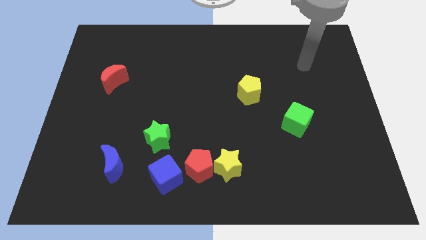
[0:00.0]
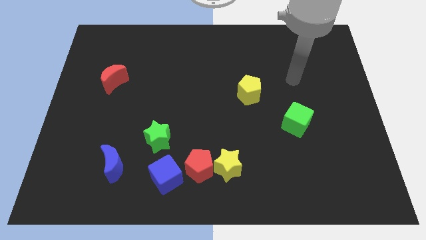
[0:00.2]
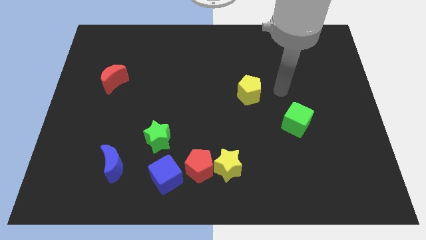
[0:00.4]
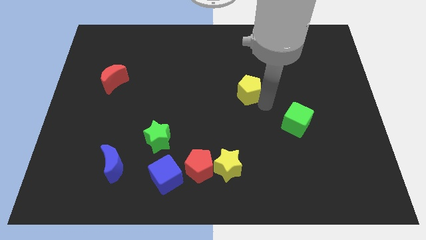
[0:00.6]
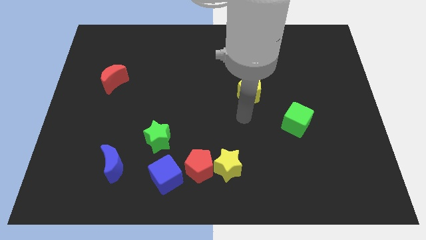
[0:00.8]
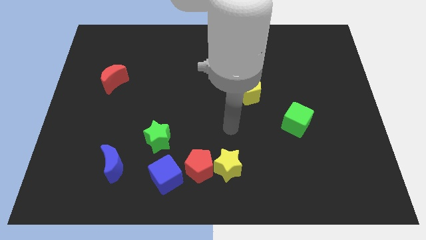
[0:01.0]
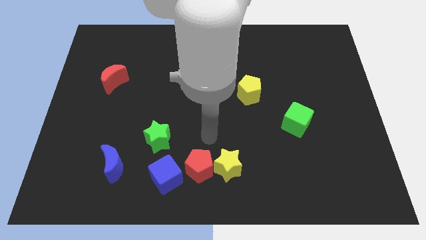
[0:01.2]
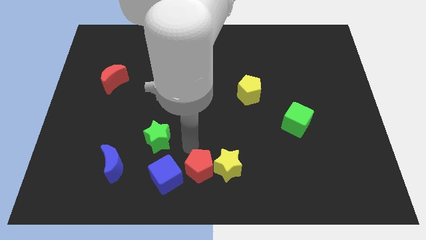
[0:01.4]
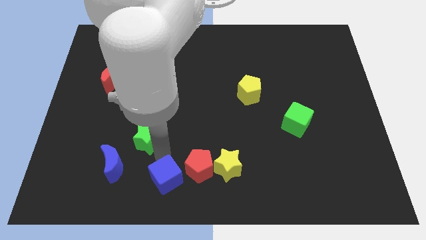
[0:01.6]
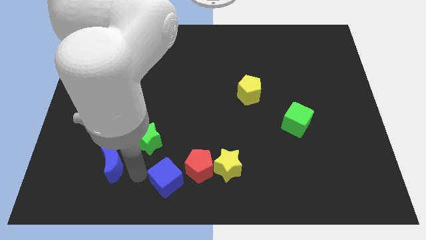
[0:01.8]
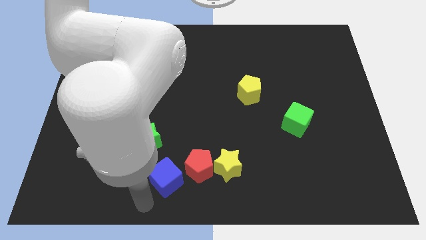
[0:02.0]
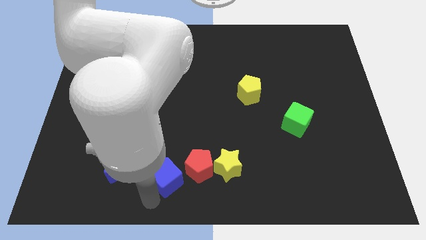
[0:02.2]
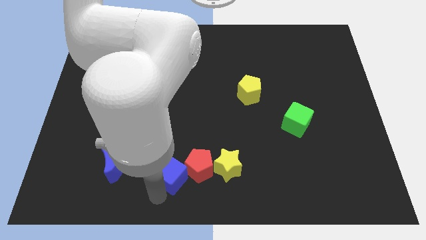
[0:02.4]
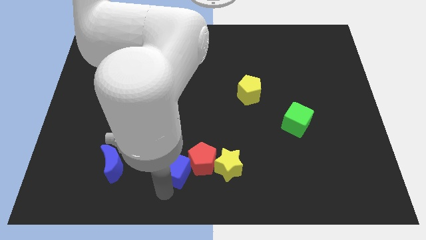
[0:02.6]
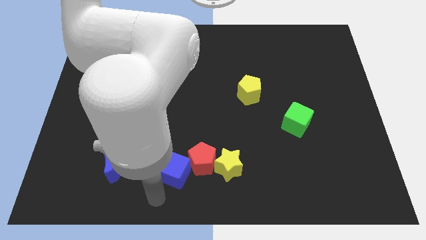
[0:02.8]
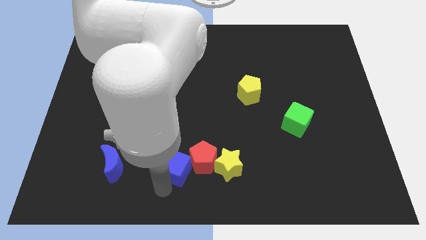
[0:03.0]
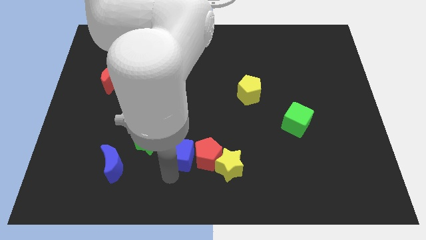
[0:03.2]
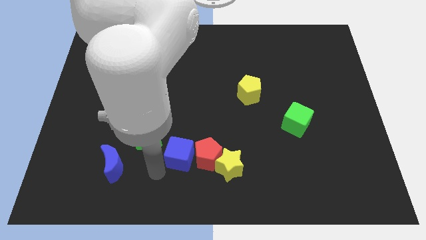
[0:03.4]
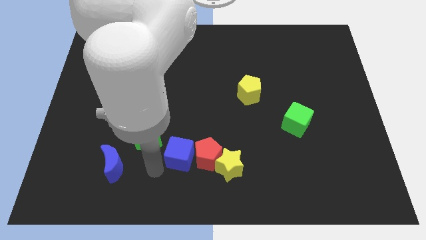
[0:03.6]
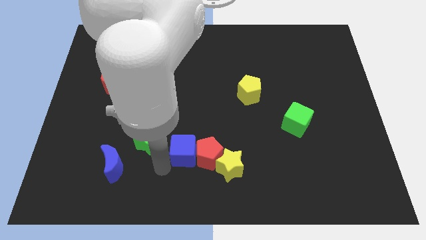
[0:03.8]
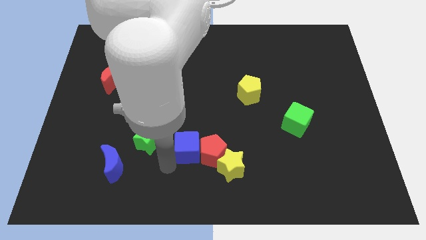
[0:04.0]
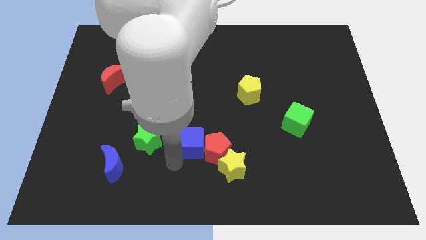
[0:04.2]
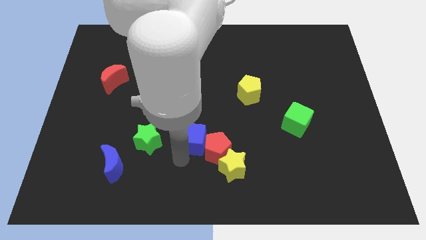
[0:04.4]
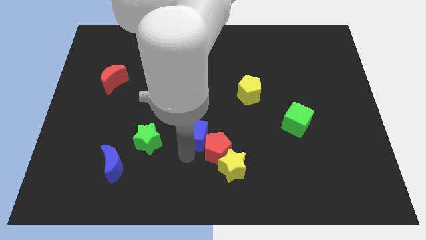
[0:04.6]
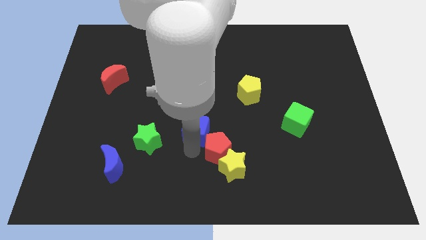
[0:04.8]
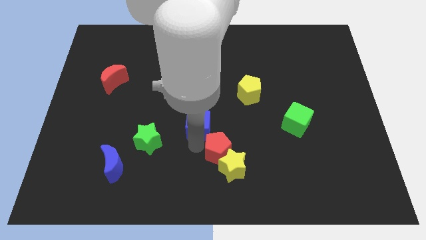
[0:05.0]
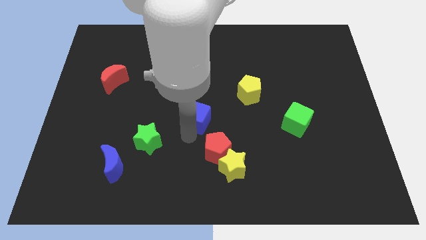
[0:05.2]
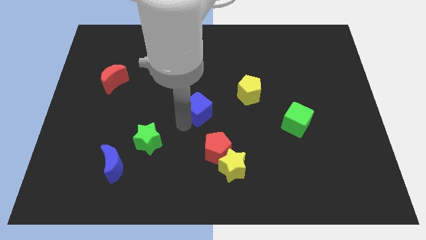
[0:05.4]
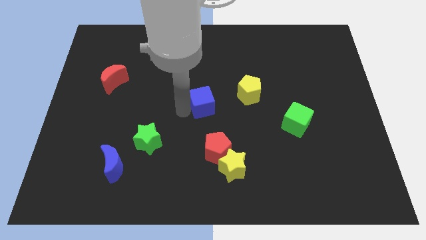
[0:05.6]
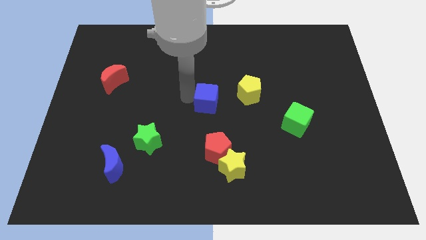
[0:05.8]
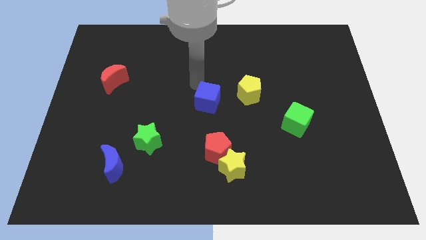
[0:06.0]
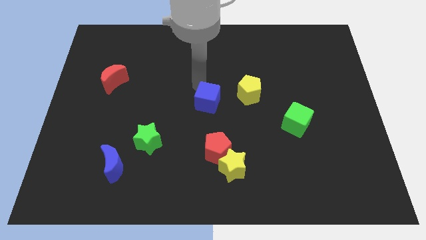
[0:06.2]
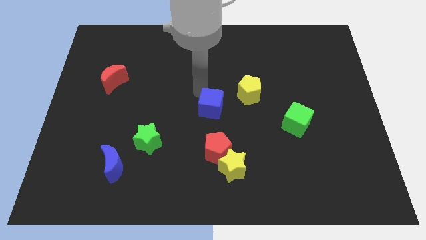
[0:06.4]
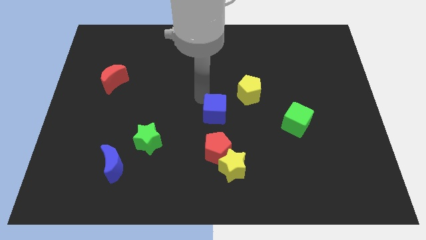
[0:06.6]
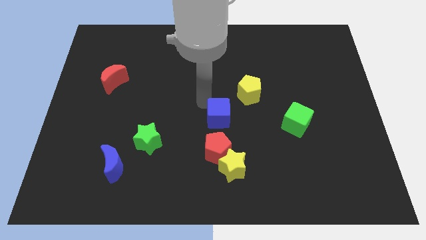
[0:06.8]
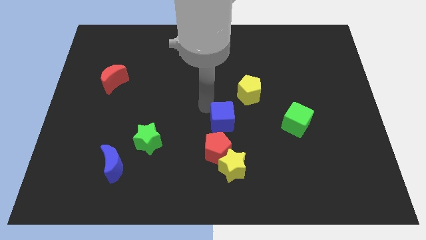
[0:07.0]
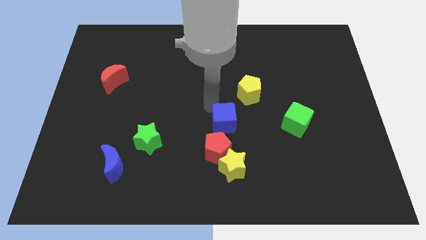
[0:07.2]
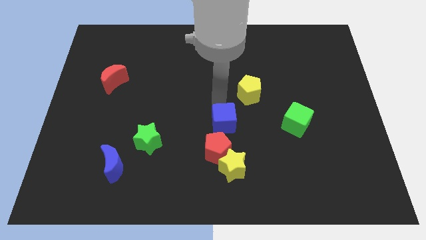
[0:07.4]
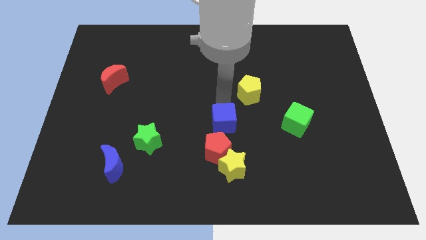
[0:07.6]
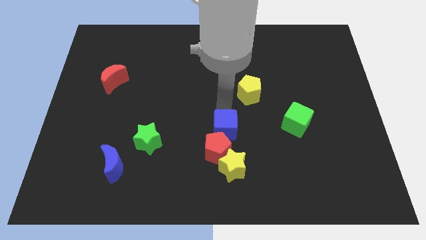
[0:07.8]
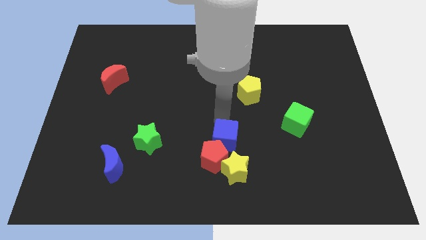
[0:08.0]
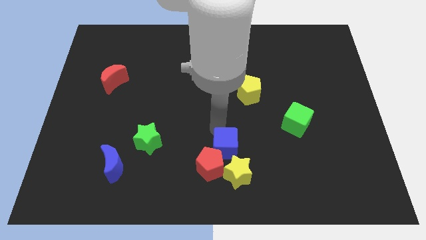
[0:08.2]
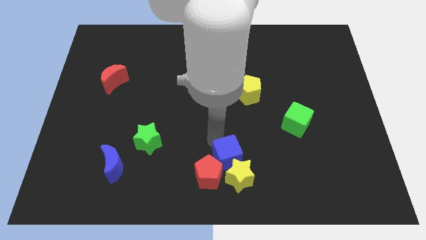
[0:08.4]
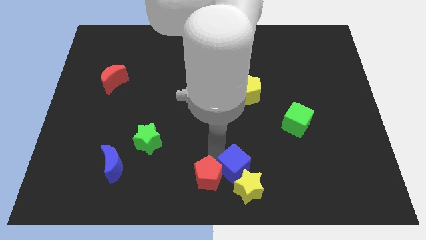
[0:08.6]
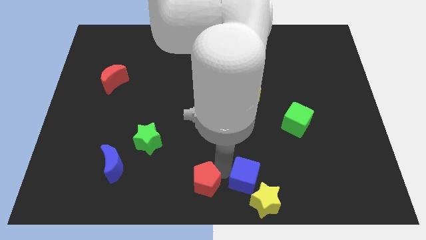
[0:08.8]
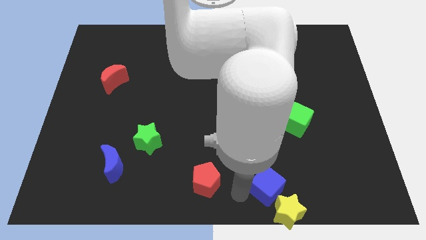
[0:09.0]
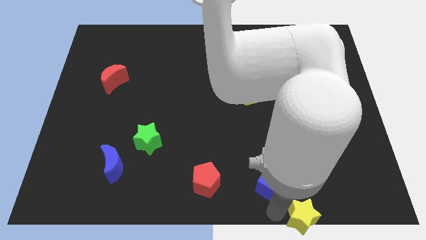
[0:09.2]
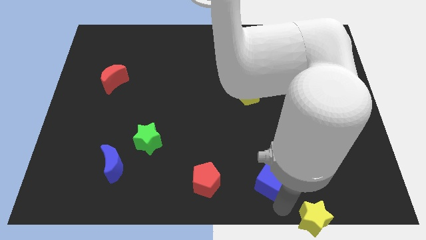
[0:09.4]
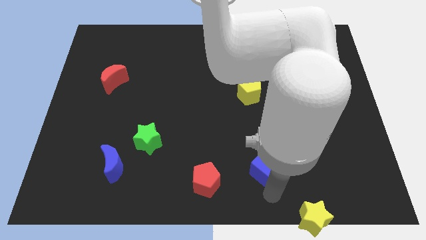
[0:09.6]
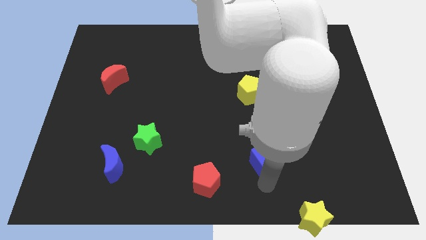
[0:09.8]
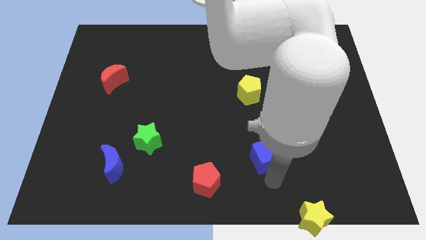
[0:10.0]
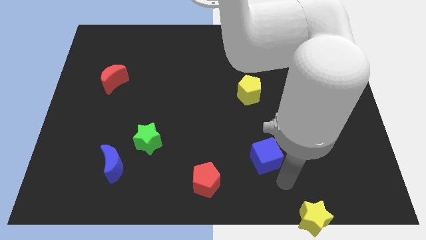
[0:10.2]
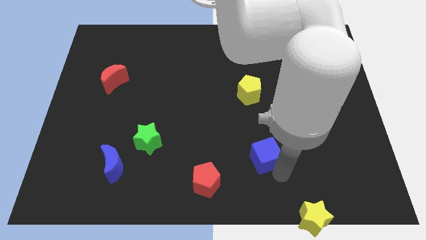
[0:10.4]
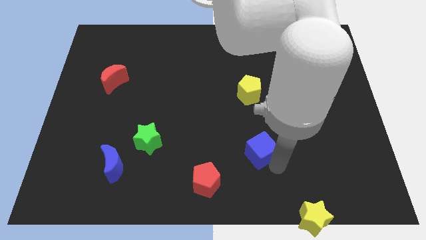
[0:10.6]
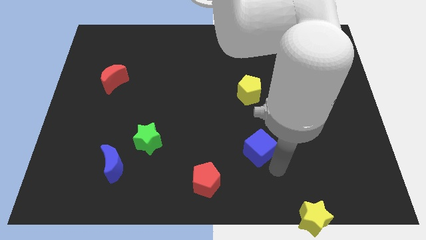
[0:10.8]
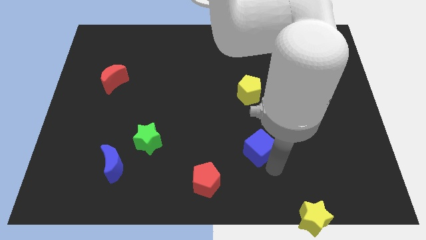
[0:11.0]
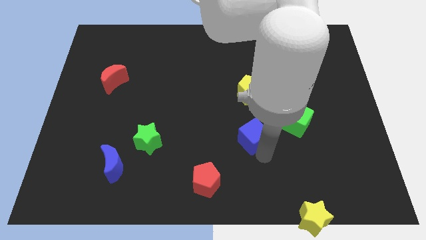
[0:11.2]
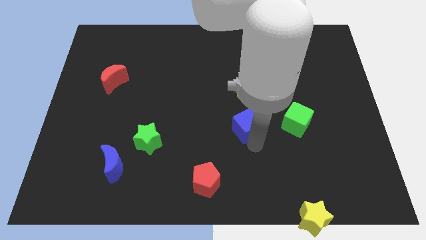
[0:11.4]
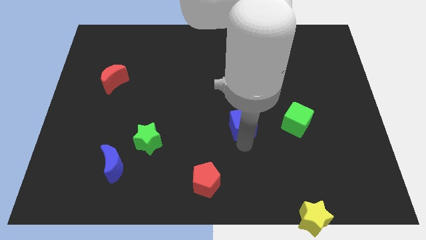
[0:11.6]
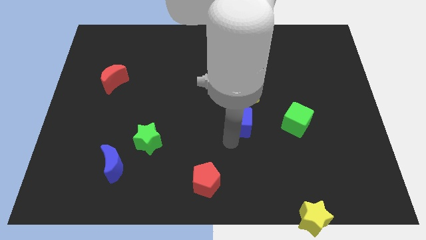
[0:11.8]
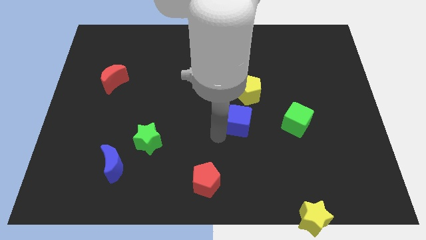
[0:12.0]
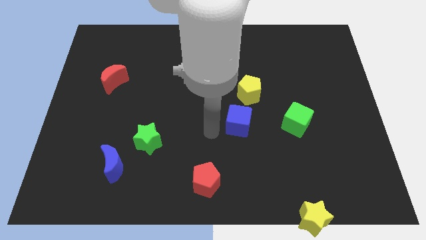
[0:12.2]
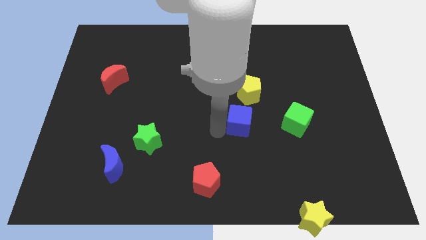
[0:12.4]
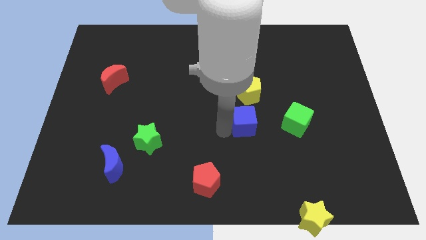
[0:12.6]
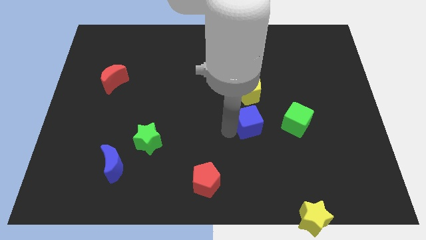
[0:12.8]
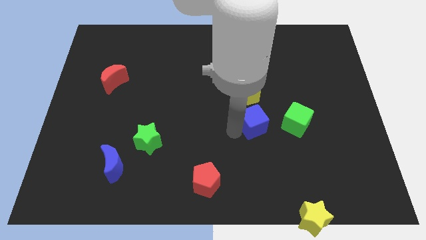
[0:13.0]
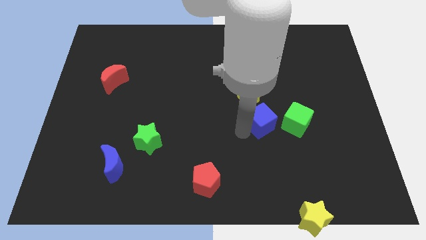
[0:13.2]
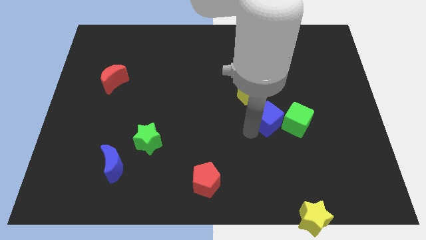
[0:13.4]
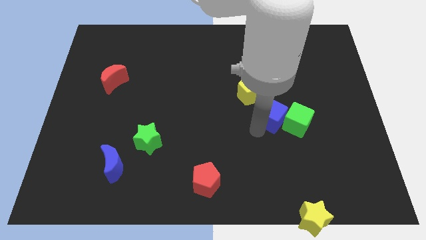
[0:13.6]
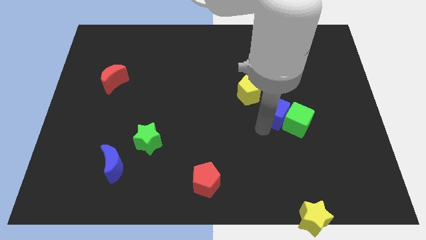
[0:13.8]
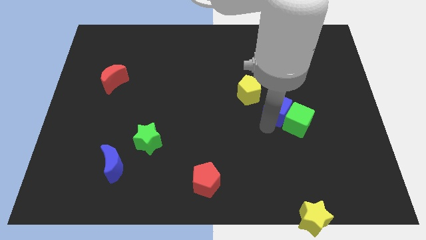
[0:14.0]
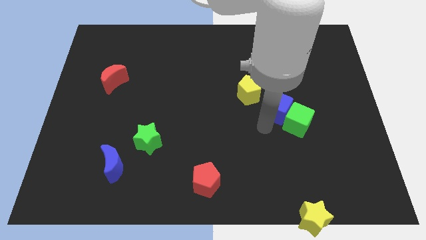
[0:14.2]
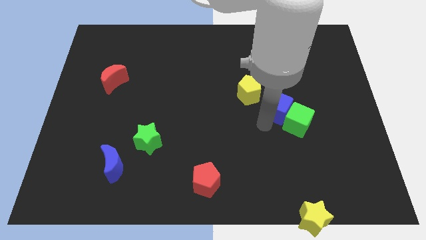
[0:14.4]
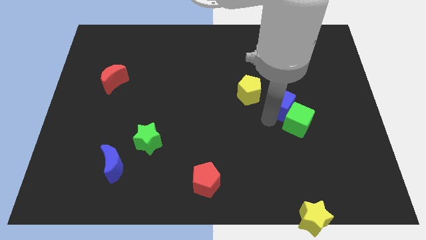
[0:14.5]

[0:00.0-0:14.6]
slide the blue cube to the right of the yellow pentagon
